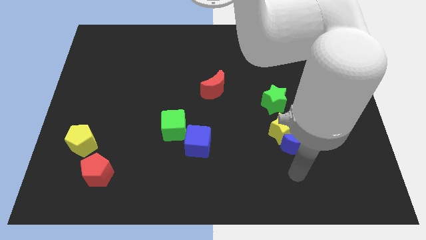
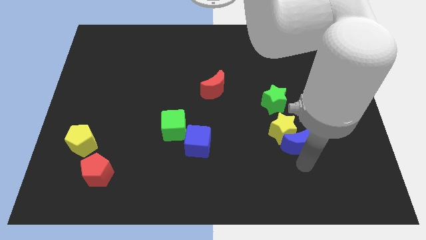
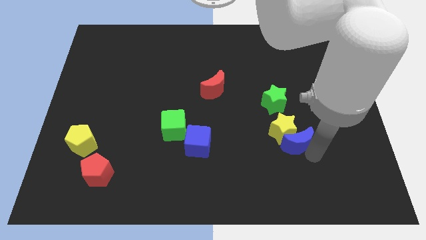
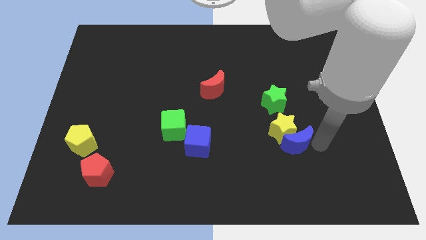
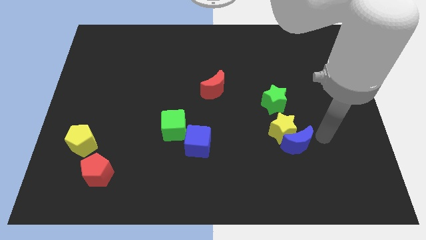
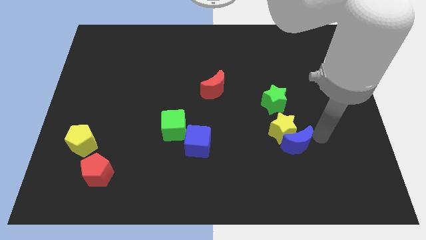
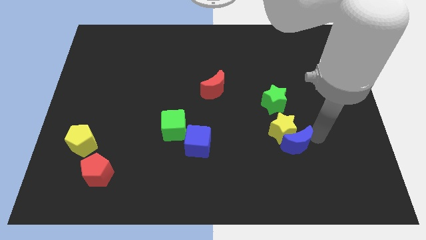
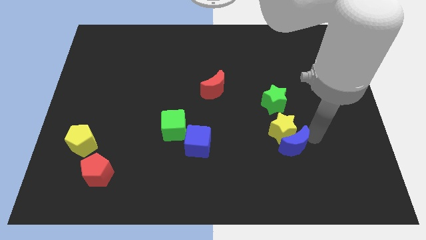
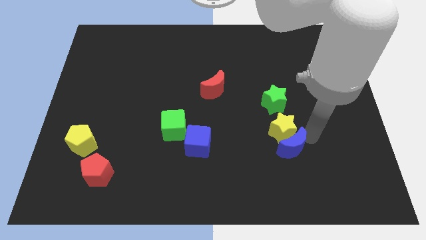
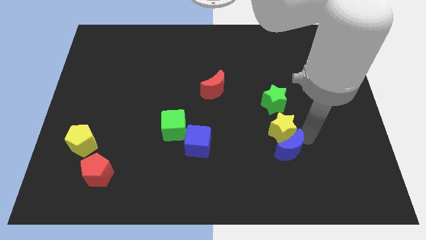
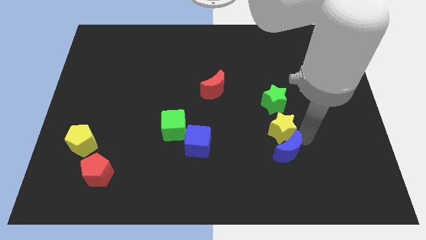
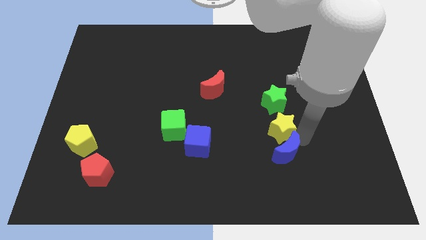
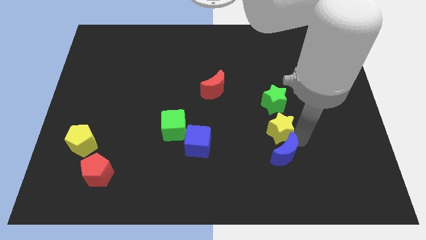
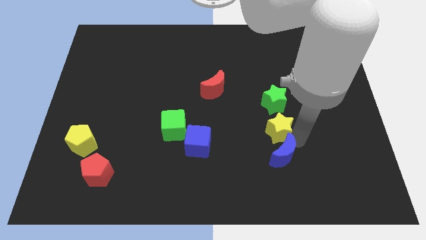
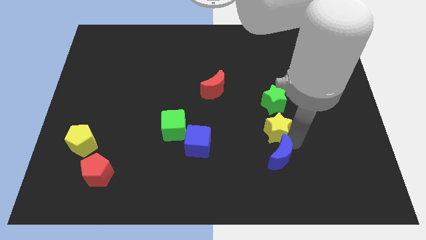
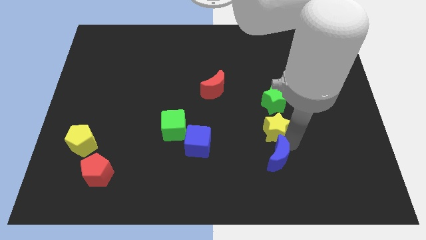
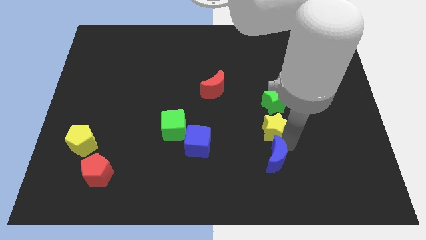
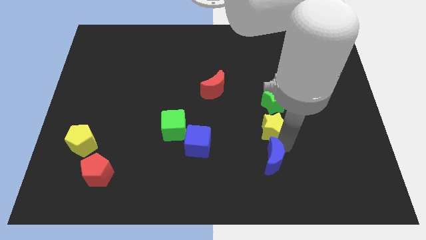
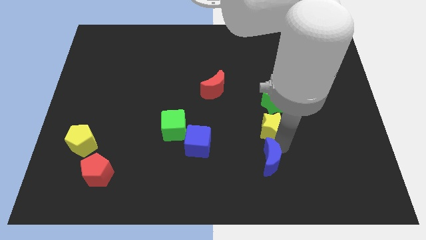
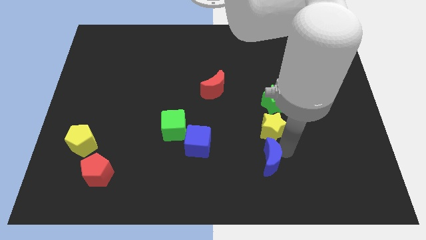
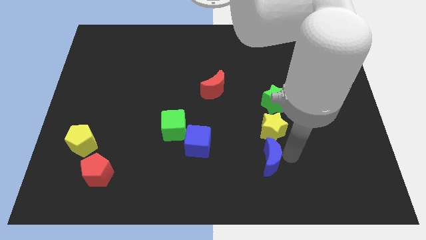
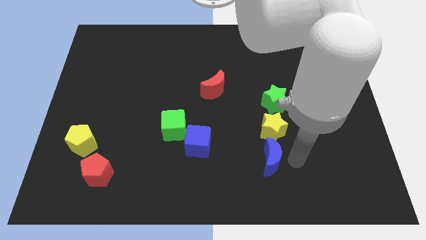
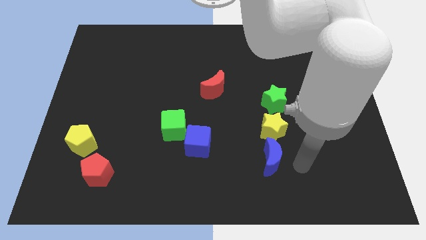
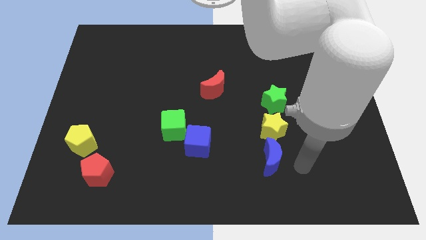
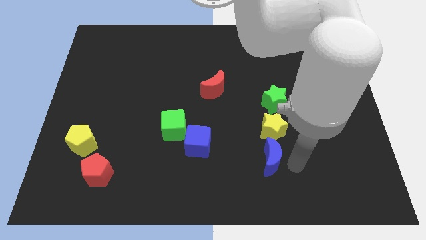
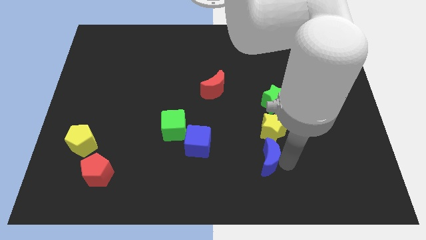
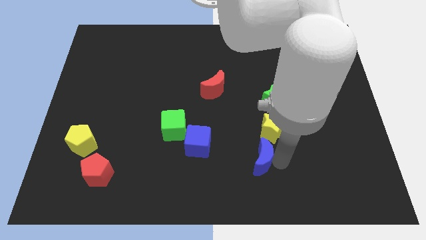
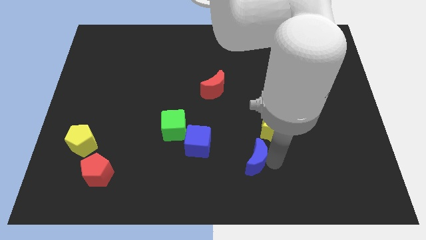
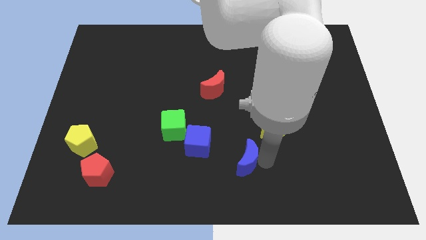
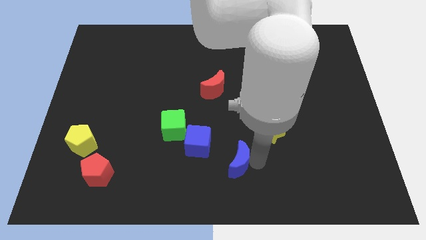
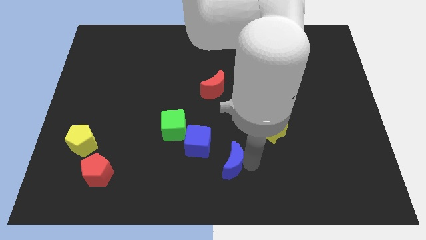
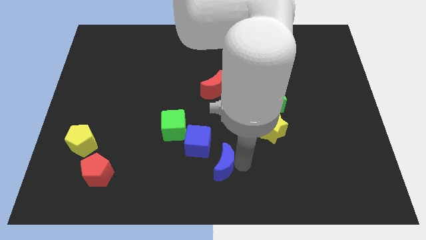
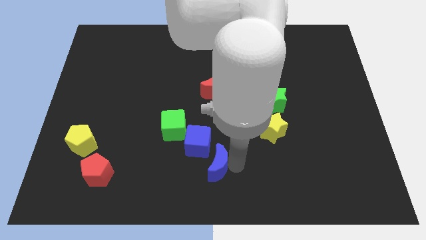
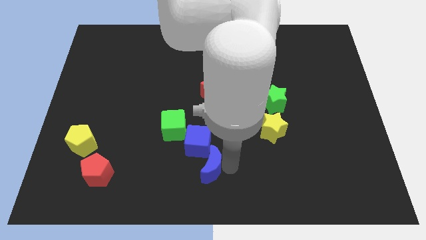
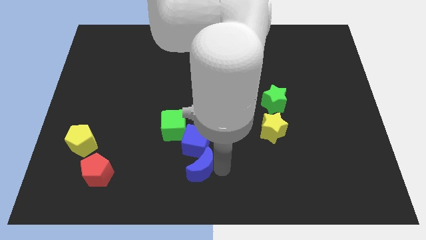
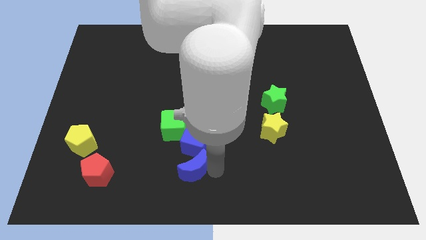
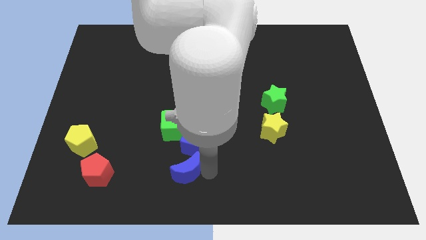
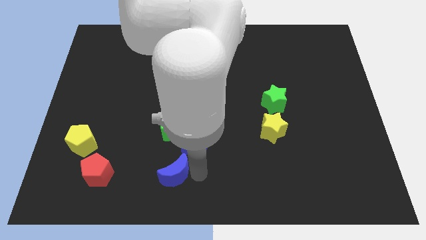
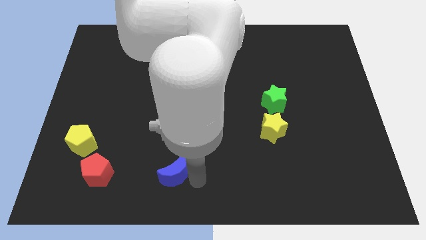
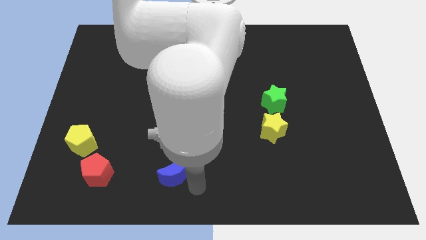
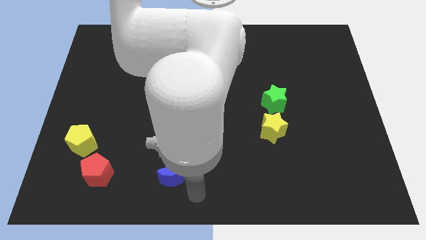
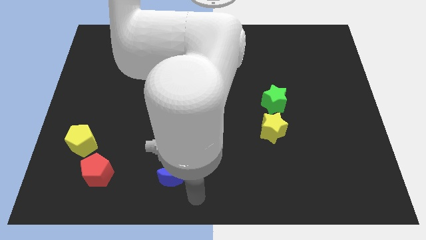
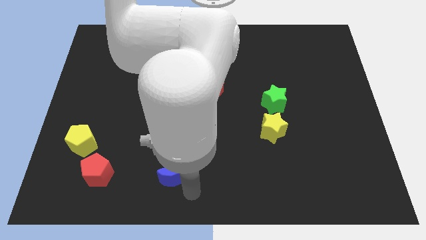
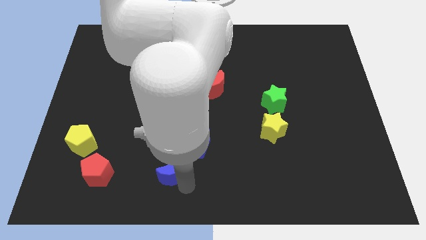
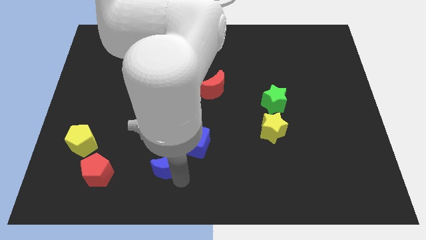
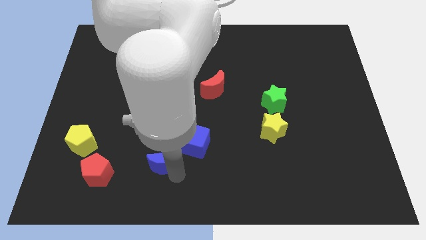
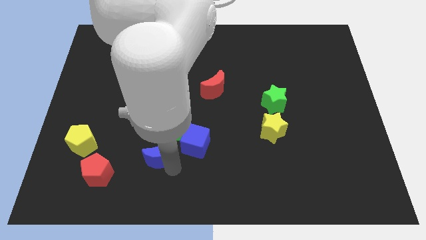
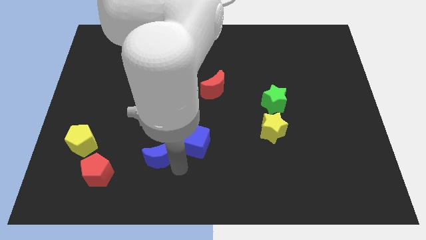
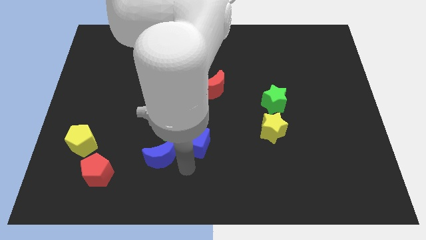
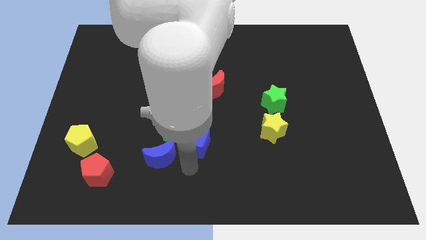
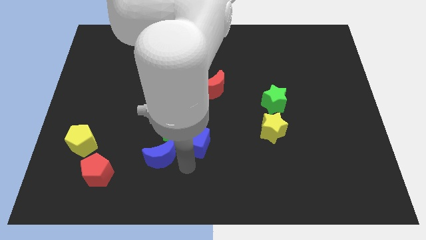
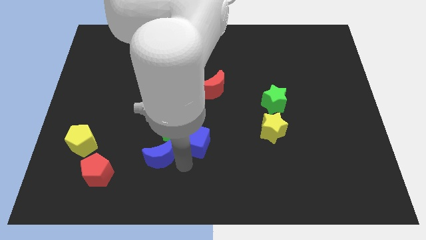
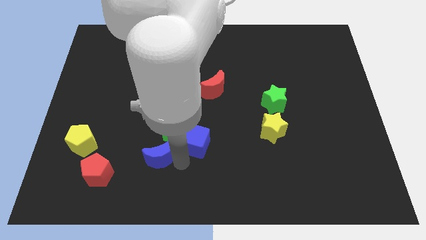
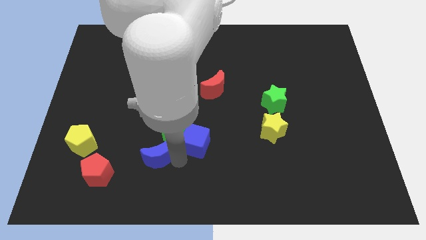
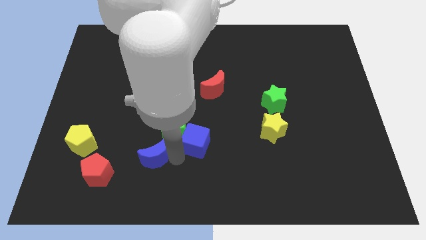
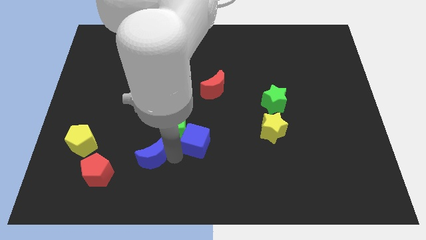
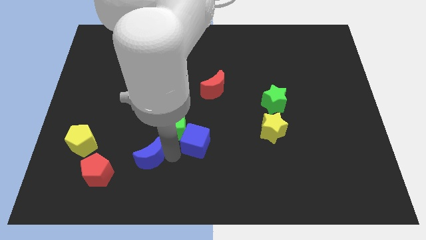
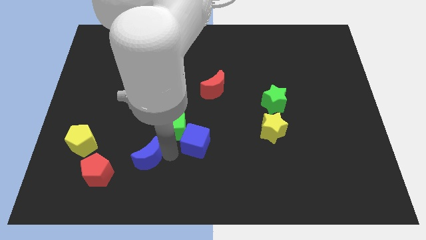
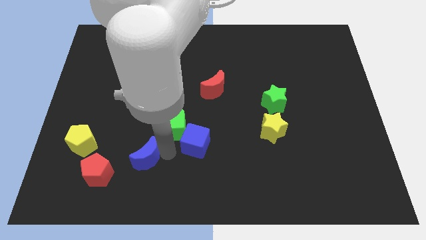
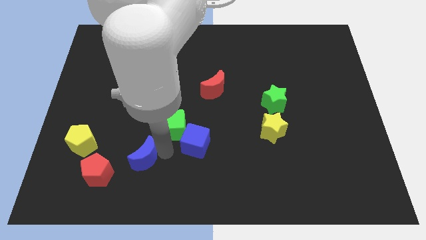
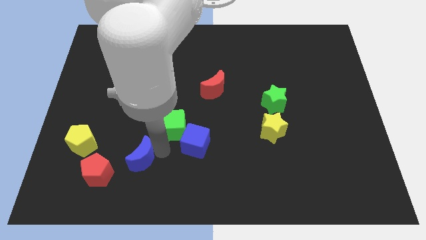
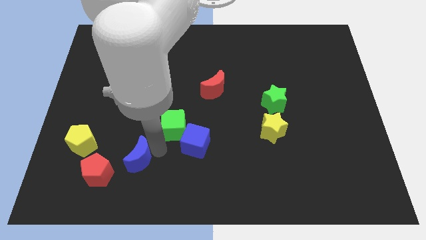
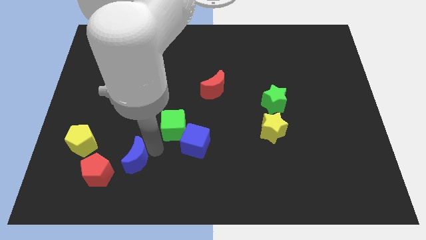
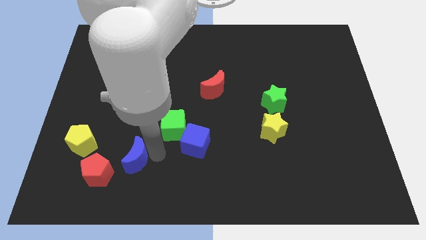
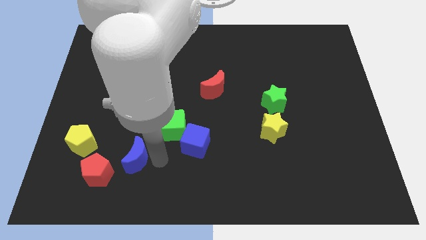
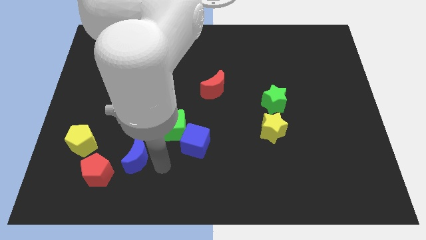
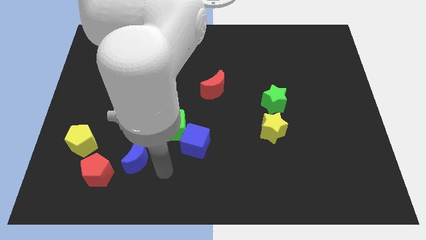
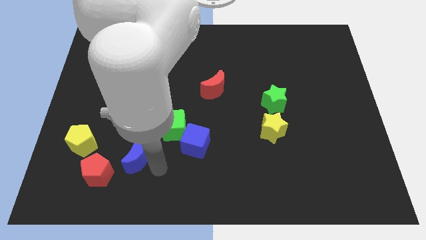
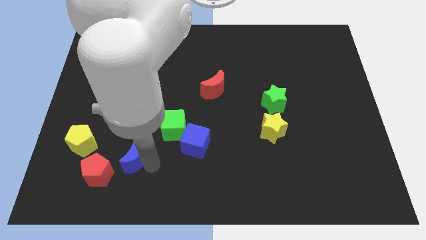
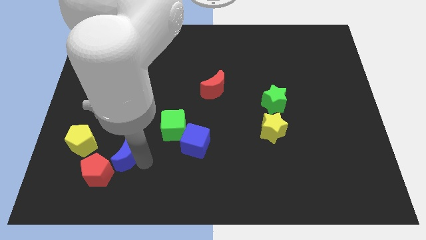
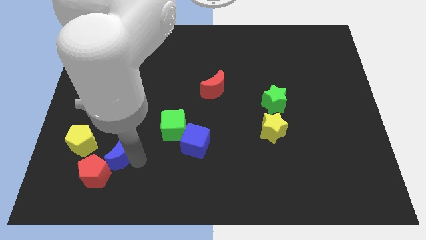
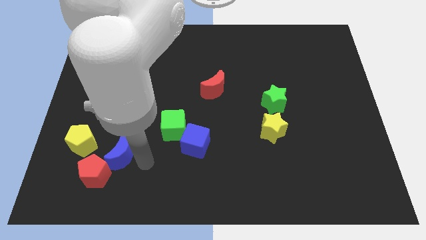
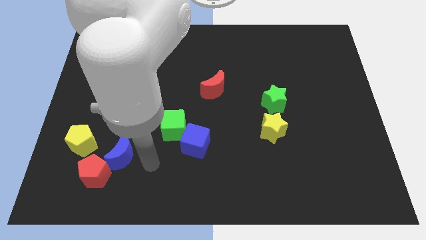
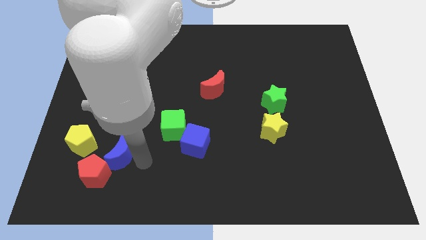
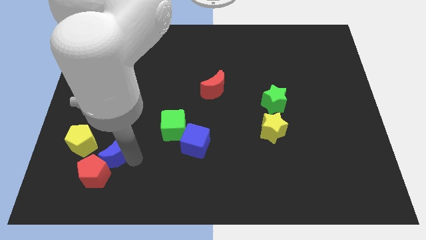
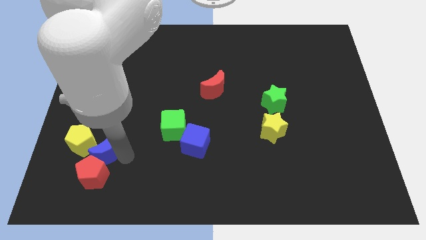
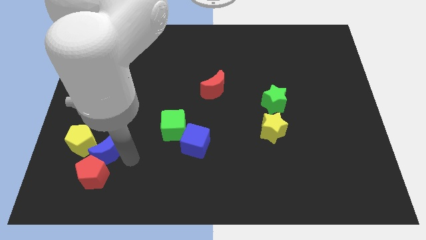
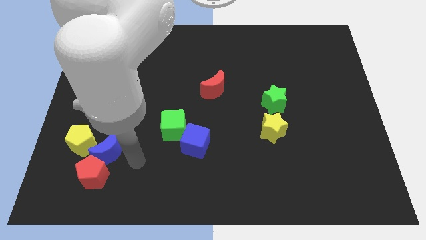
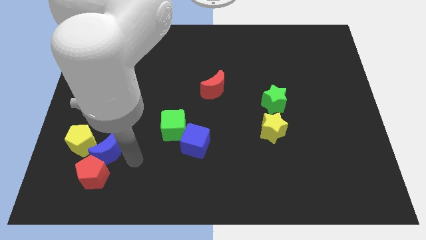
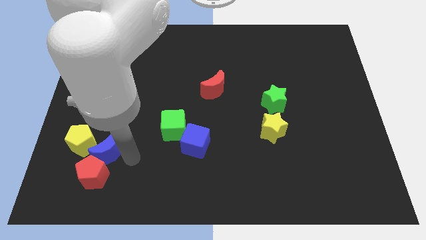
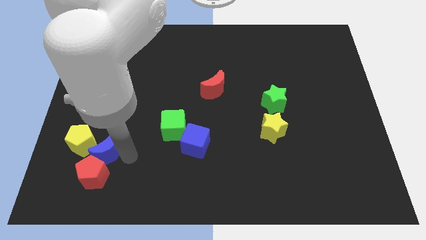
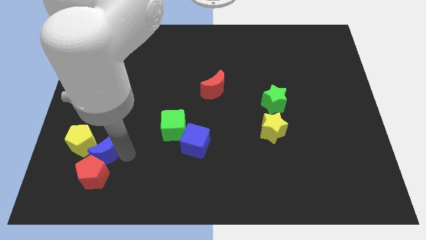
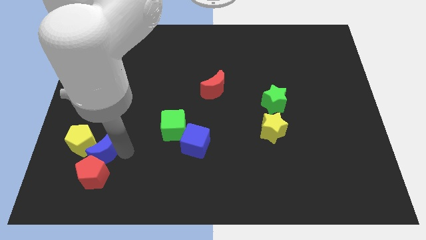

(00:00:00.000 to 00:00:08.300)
slide the blue moon next to the yellow pentagon
